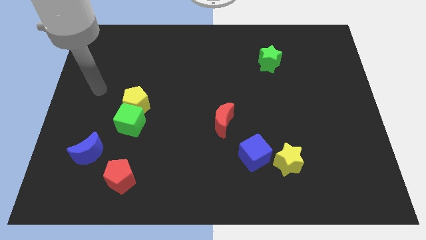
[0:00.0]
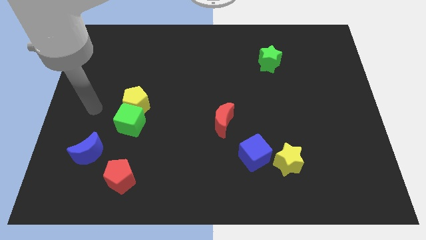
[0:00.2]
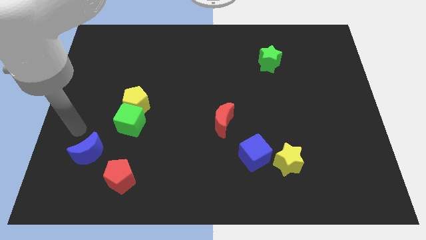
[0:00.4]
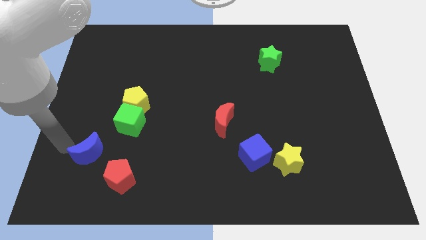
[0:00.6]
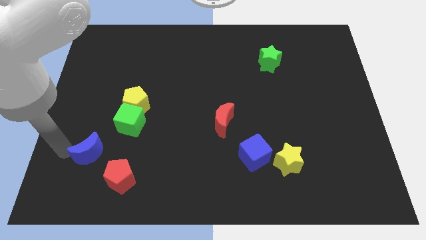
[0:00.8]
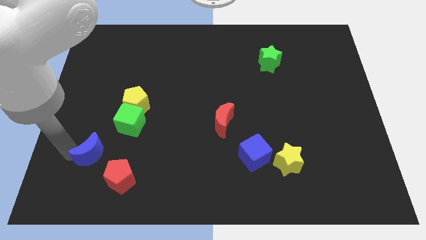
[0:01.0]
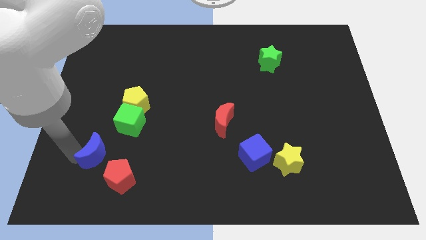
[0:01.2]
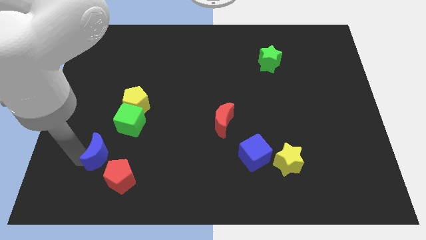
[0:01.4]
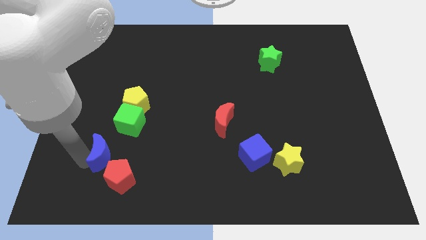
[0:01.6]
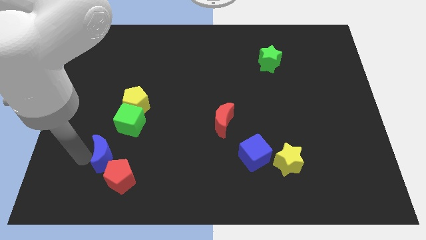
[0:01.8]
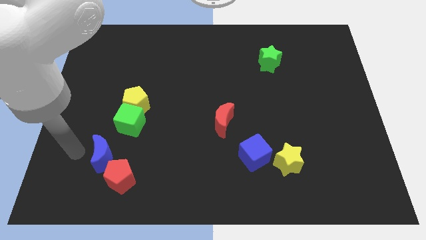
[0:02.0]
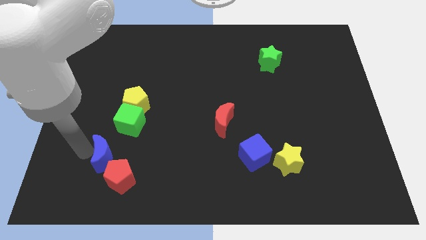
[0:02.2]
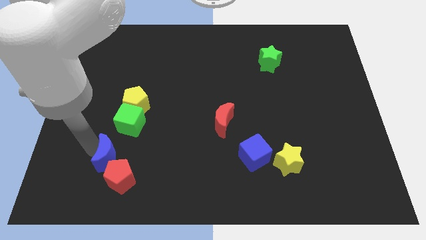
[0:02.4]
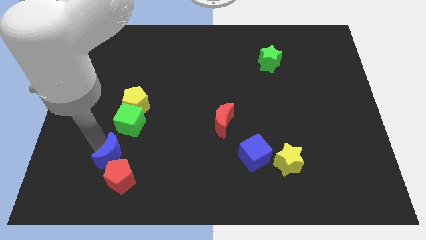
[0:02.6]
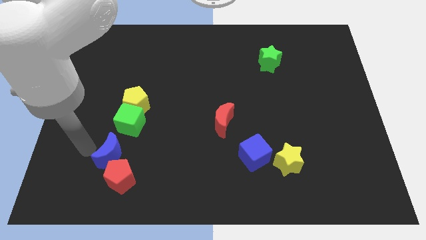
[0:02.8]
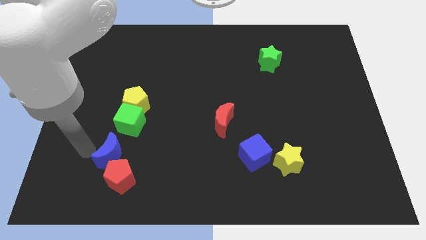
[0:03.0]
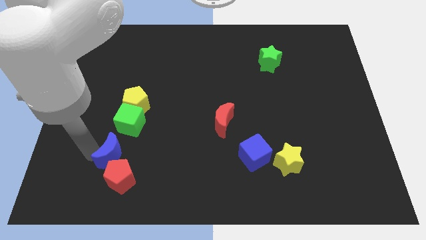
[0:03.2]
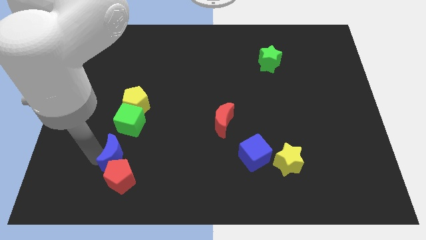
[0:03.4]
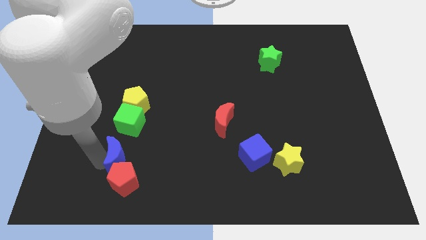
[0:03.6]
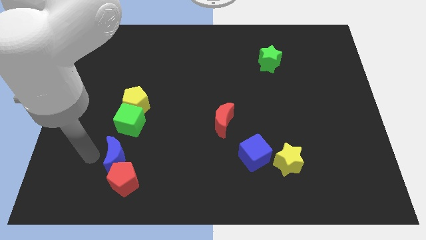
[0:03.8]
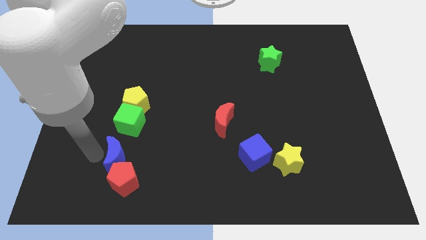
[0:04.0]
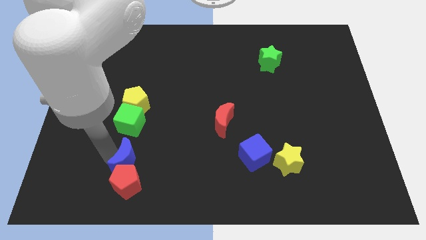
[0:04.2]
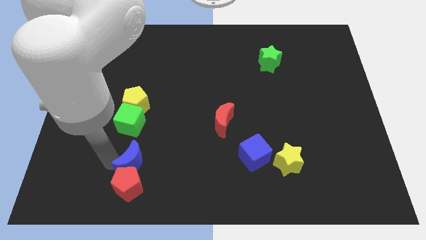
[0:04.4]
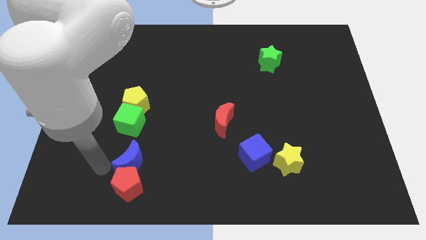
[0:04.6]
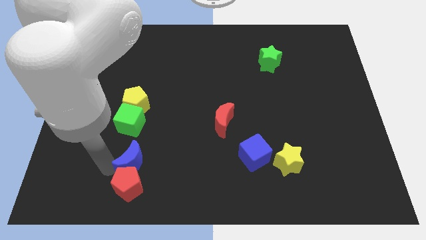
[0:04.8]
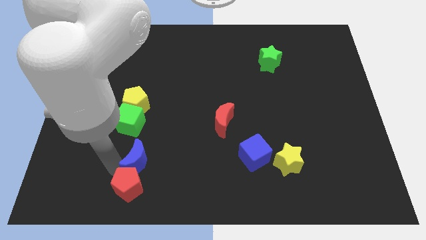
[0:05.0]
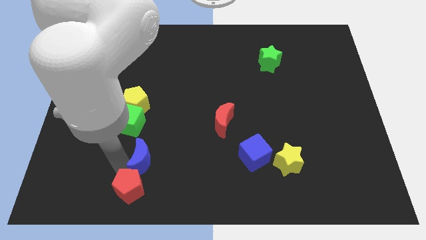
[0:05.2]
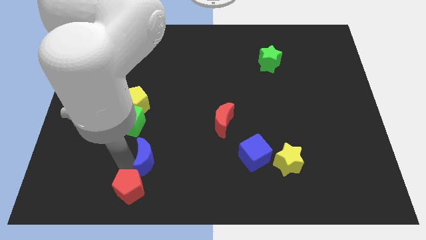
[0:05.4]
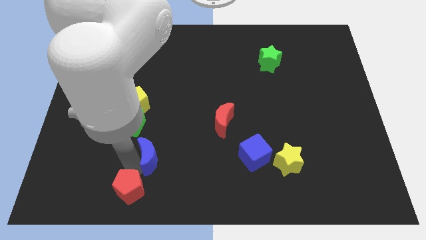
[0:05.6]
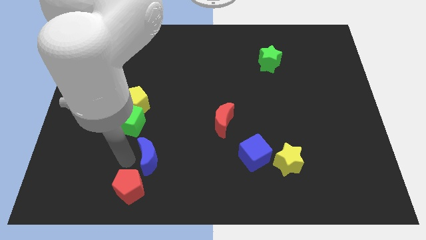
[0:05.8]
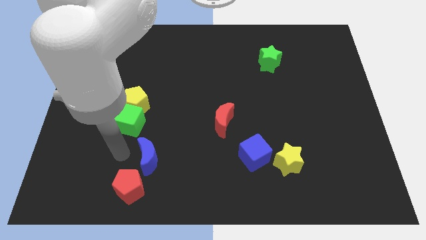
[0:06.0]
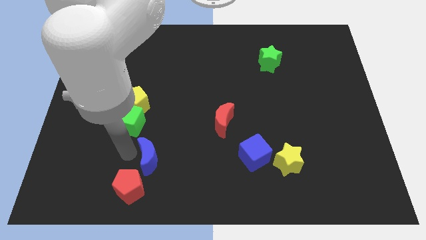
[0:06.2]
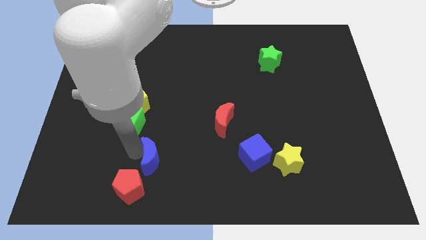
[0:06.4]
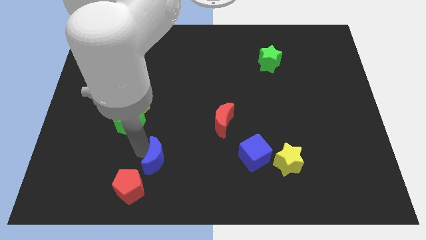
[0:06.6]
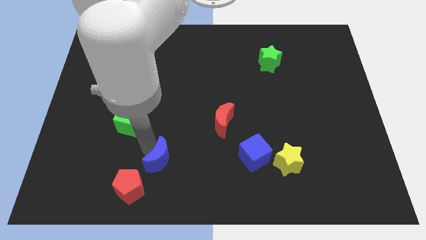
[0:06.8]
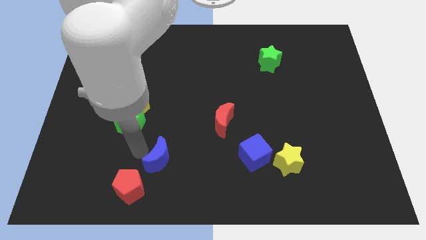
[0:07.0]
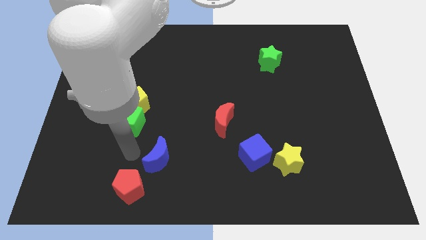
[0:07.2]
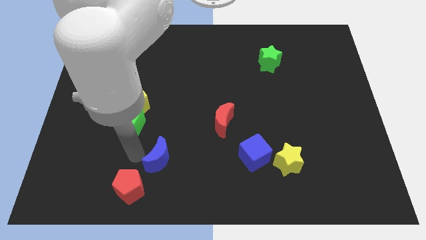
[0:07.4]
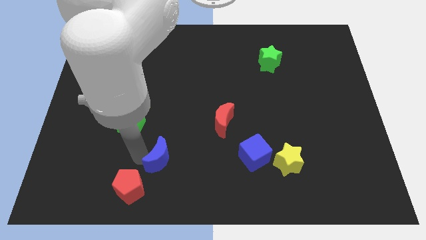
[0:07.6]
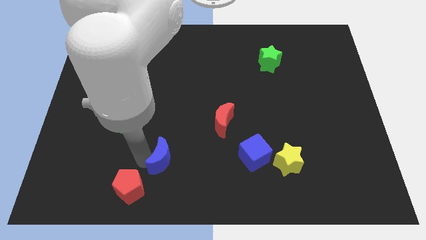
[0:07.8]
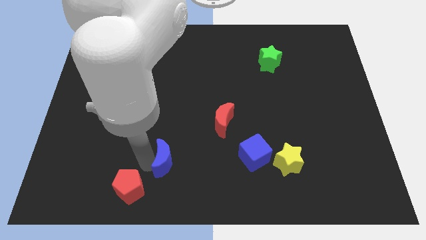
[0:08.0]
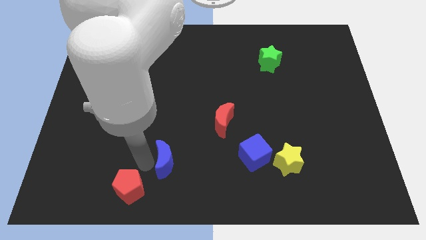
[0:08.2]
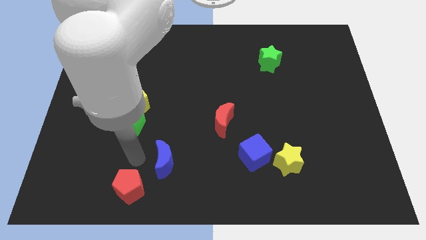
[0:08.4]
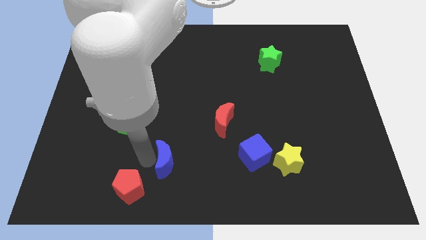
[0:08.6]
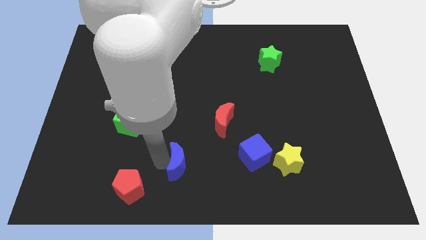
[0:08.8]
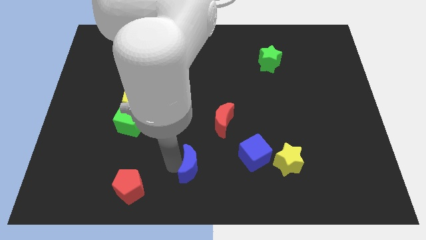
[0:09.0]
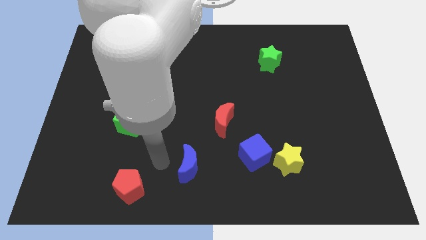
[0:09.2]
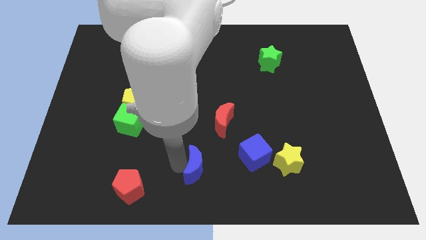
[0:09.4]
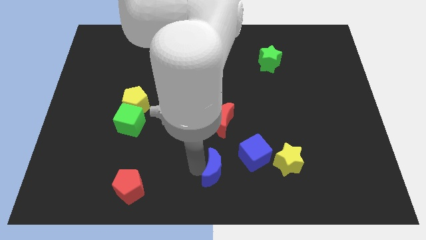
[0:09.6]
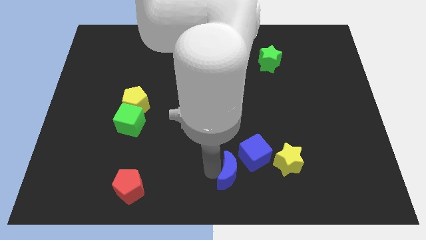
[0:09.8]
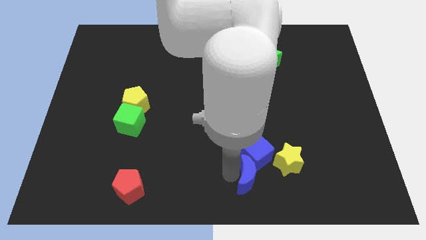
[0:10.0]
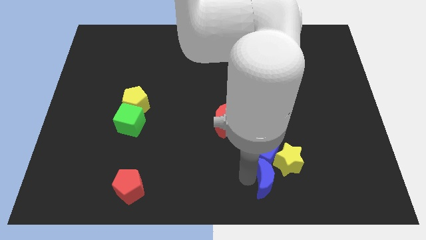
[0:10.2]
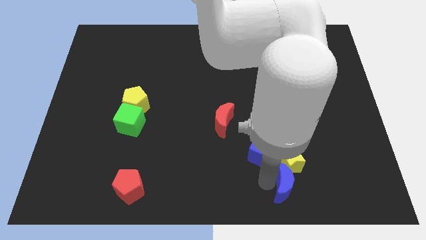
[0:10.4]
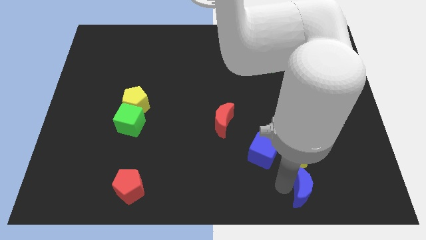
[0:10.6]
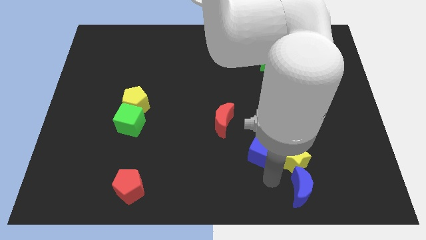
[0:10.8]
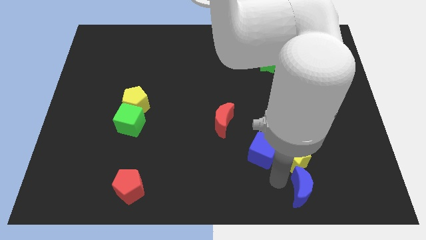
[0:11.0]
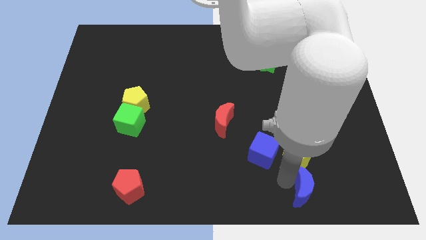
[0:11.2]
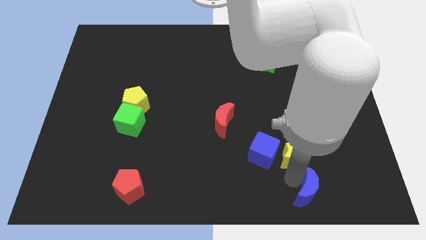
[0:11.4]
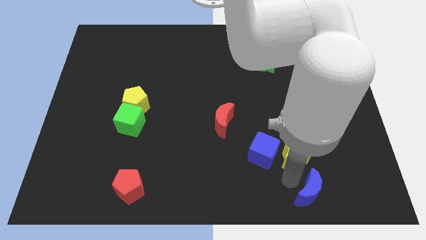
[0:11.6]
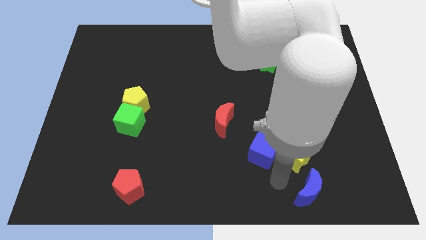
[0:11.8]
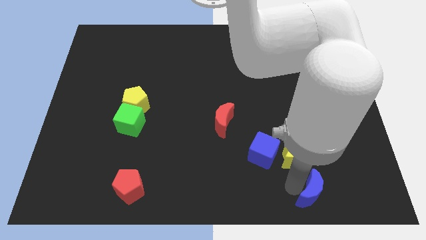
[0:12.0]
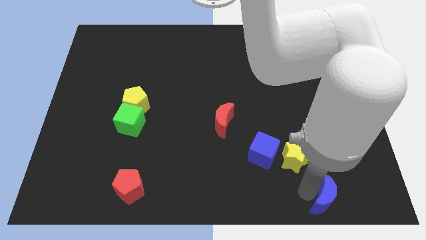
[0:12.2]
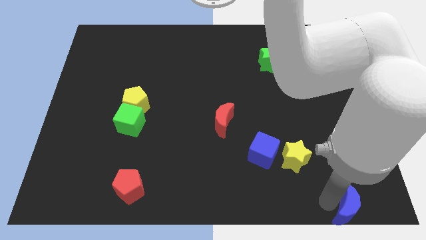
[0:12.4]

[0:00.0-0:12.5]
push the blue moon to the bottom right
